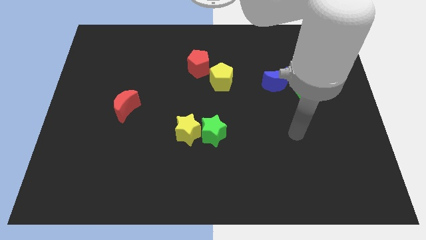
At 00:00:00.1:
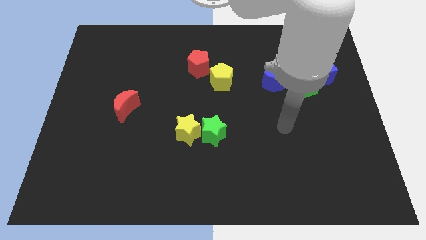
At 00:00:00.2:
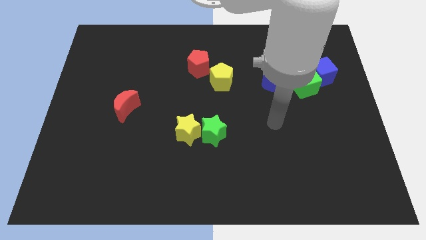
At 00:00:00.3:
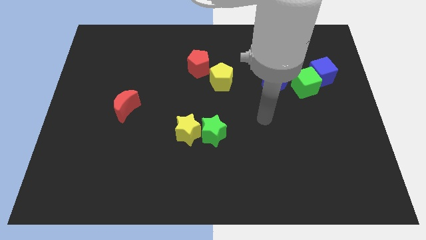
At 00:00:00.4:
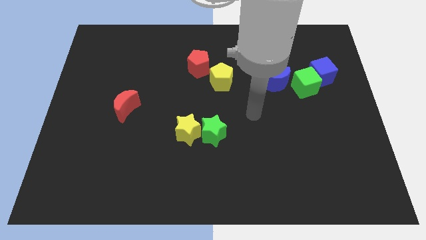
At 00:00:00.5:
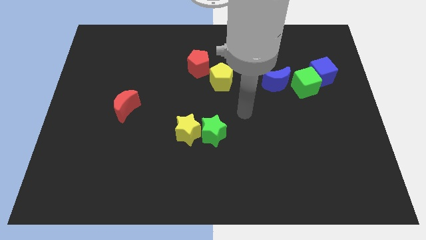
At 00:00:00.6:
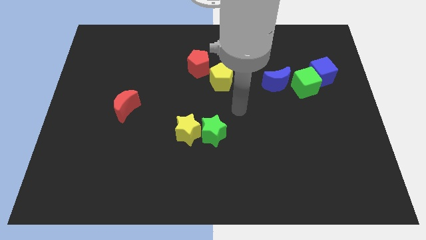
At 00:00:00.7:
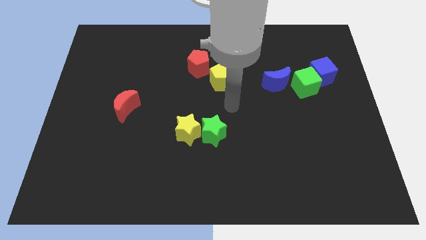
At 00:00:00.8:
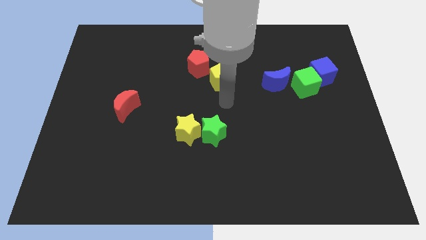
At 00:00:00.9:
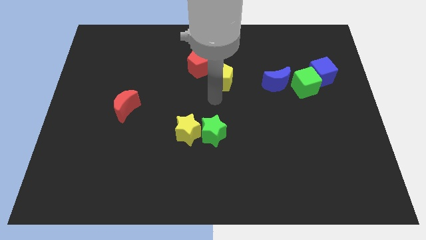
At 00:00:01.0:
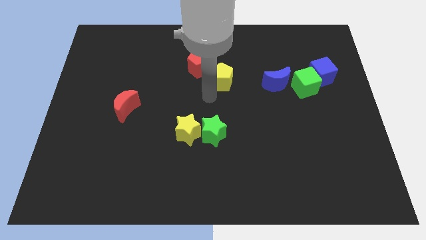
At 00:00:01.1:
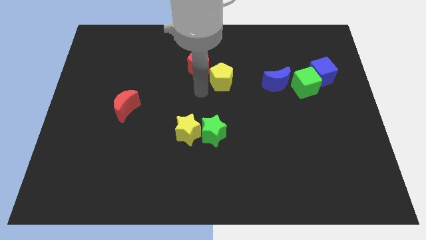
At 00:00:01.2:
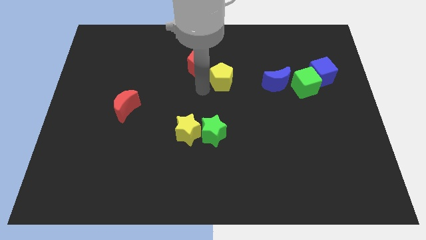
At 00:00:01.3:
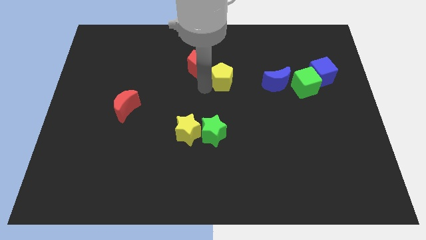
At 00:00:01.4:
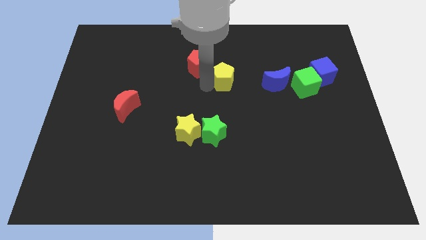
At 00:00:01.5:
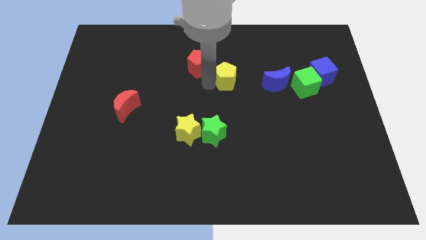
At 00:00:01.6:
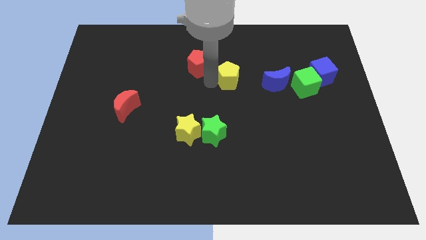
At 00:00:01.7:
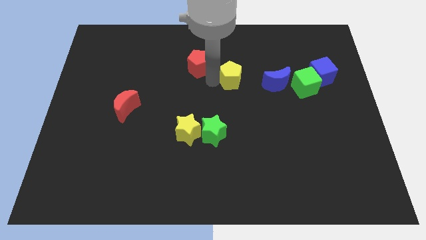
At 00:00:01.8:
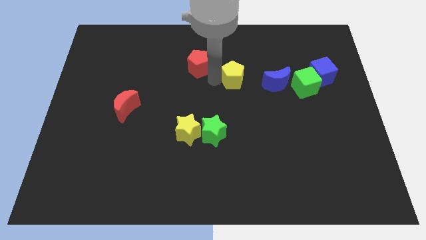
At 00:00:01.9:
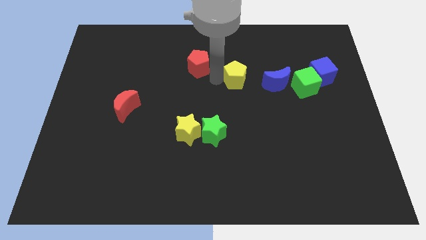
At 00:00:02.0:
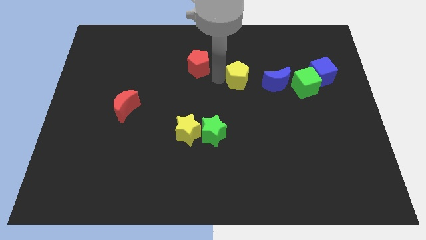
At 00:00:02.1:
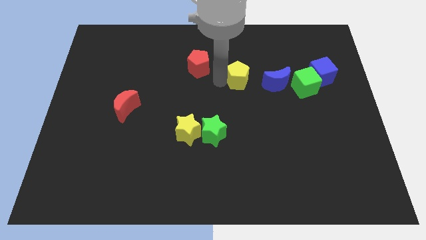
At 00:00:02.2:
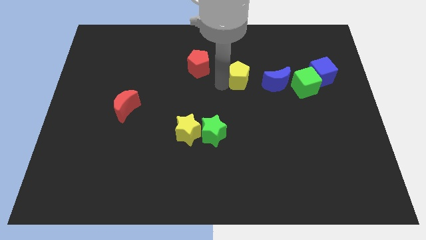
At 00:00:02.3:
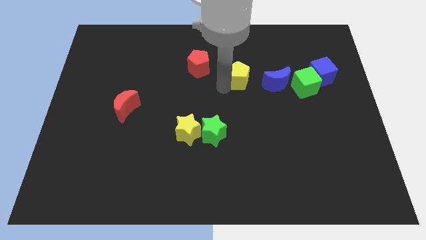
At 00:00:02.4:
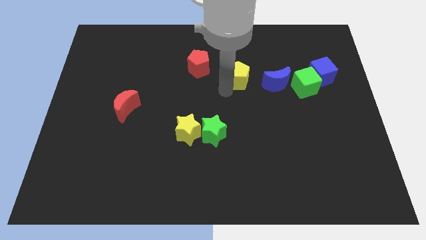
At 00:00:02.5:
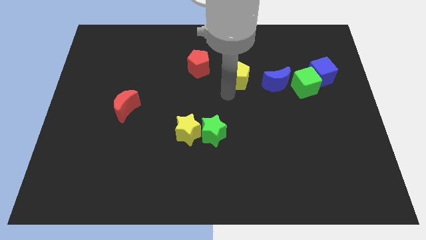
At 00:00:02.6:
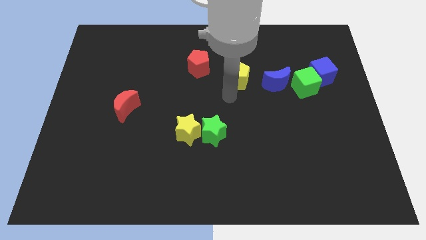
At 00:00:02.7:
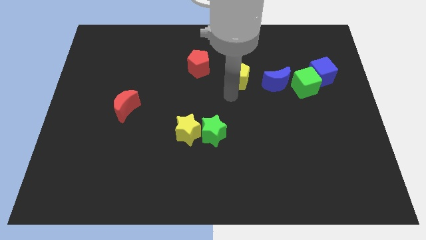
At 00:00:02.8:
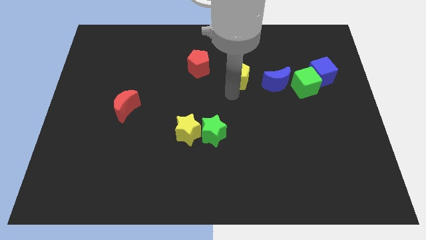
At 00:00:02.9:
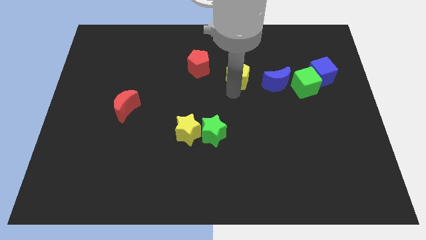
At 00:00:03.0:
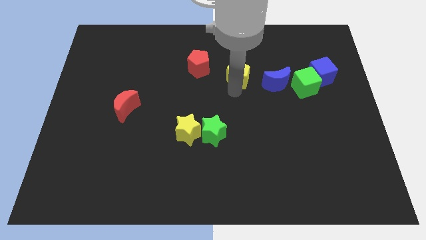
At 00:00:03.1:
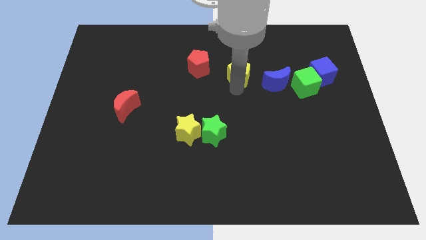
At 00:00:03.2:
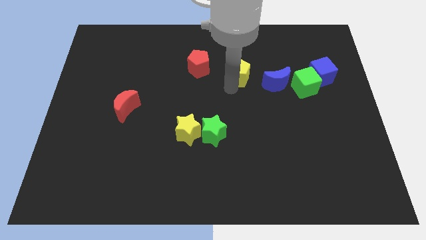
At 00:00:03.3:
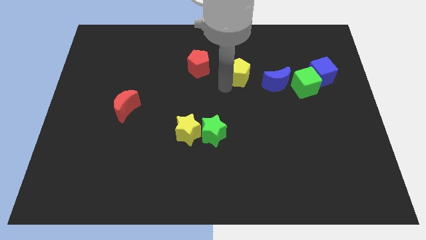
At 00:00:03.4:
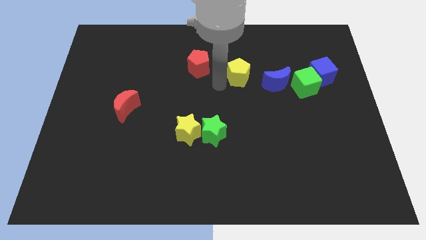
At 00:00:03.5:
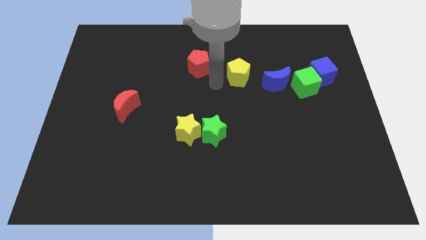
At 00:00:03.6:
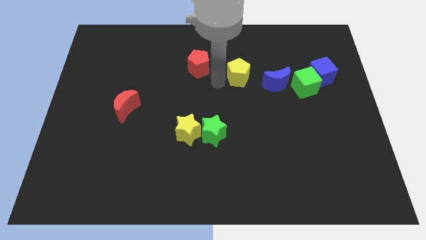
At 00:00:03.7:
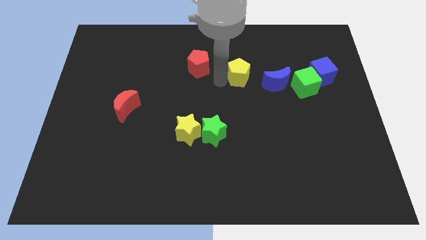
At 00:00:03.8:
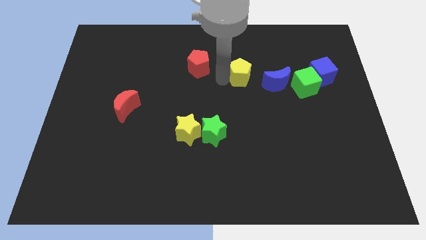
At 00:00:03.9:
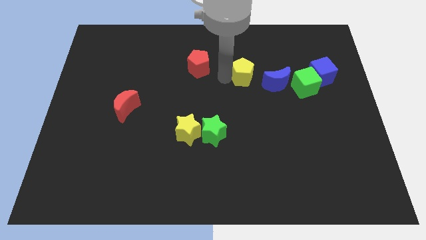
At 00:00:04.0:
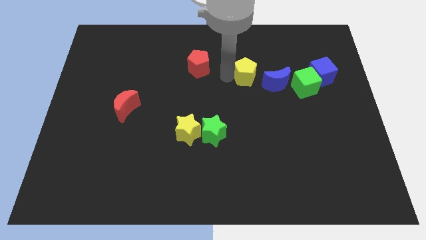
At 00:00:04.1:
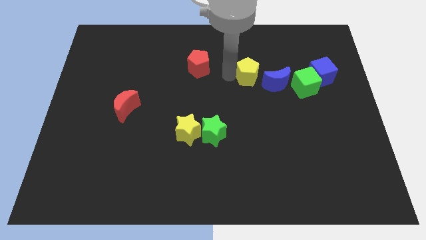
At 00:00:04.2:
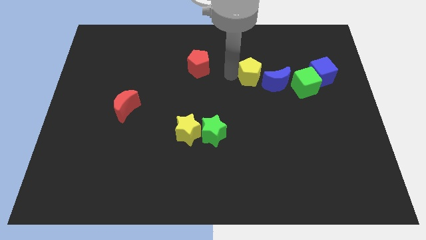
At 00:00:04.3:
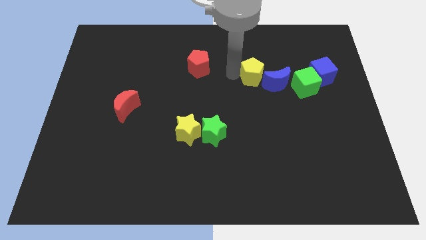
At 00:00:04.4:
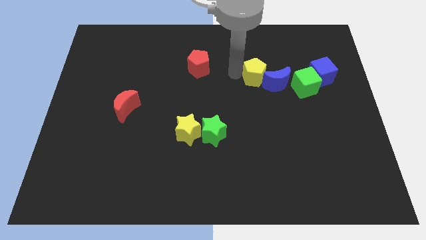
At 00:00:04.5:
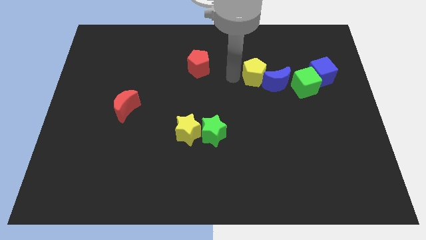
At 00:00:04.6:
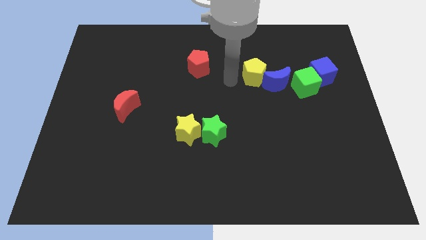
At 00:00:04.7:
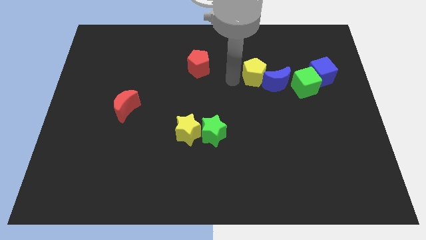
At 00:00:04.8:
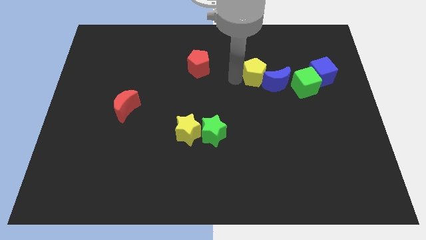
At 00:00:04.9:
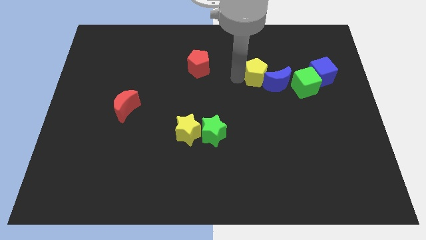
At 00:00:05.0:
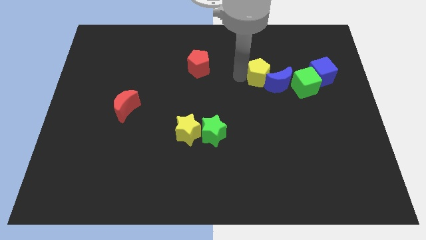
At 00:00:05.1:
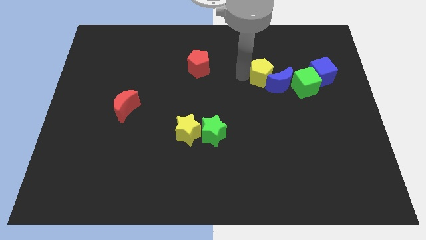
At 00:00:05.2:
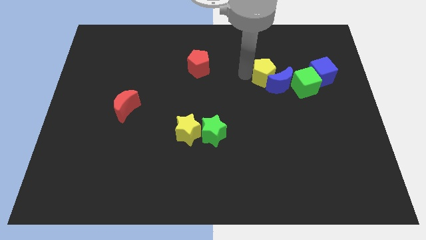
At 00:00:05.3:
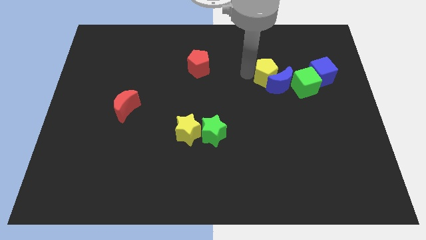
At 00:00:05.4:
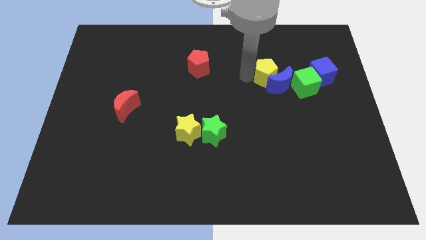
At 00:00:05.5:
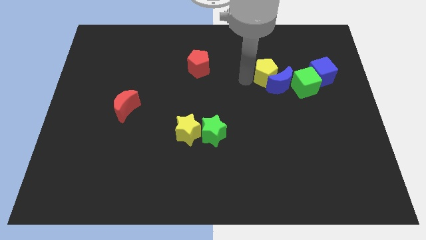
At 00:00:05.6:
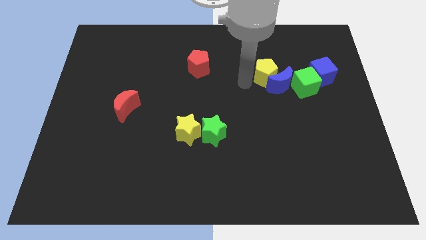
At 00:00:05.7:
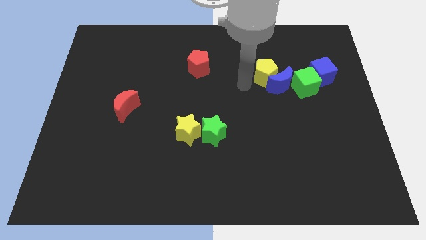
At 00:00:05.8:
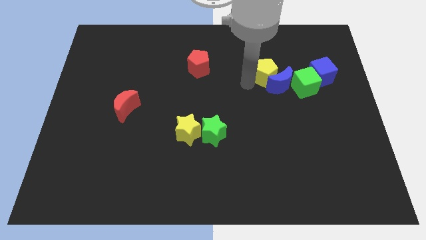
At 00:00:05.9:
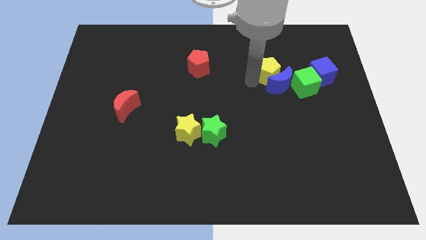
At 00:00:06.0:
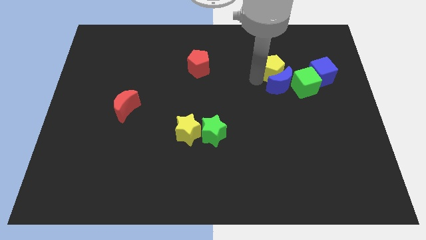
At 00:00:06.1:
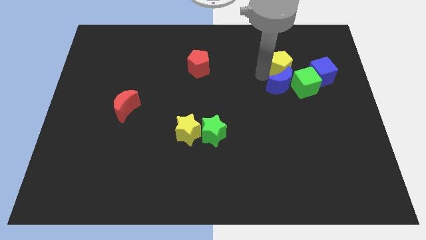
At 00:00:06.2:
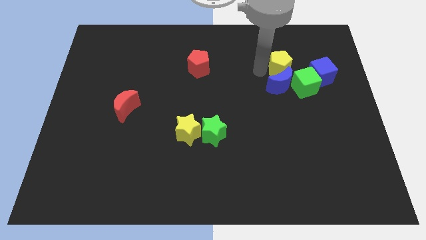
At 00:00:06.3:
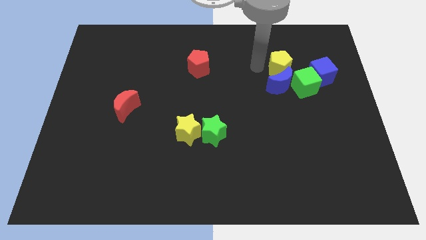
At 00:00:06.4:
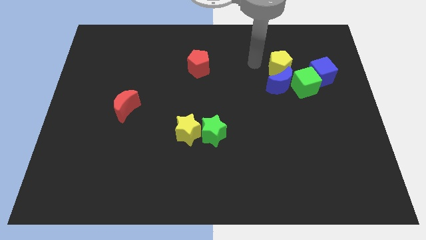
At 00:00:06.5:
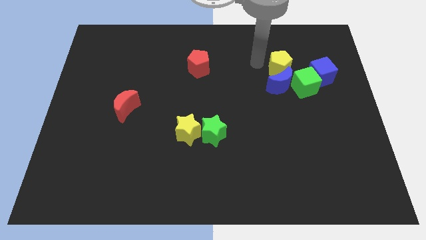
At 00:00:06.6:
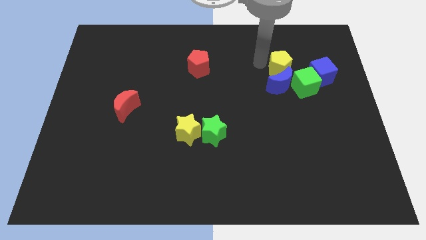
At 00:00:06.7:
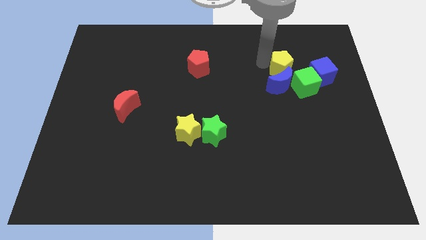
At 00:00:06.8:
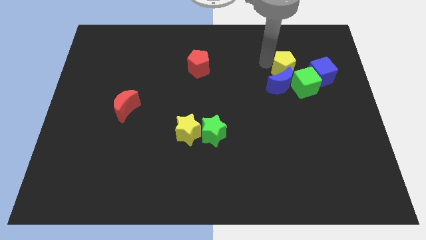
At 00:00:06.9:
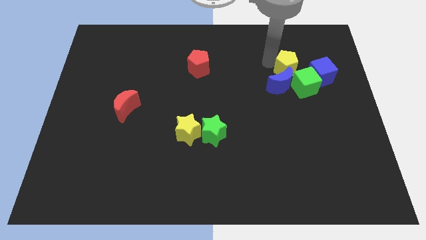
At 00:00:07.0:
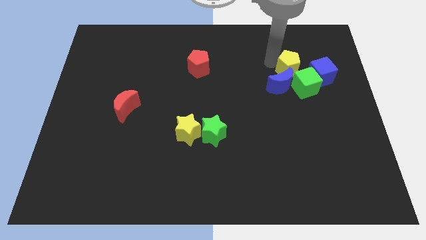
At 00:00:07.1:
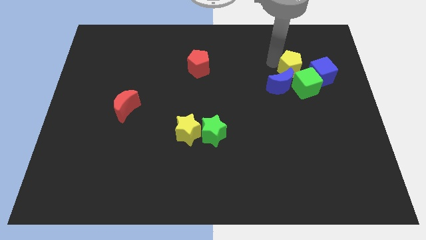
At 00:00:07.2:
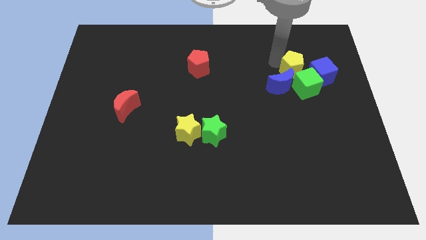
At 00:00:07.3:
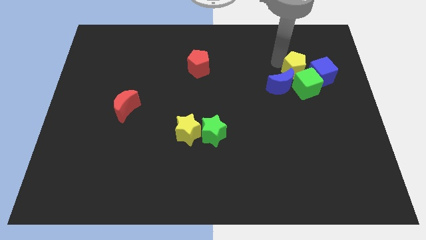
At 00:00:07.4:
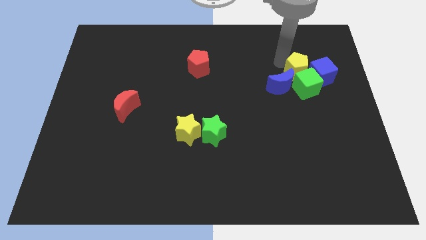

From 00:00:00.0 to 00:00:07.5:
move the yellow pentagon close to the blue cube
